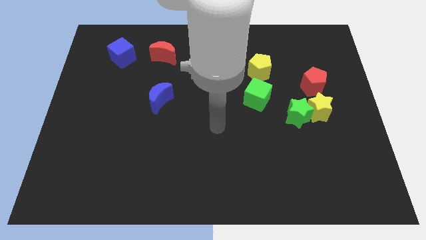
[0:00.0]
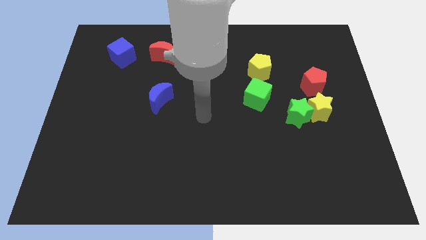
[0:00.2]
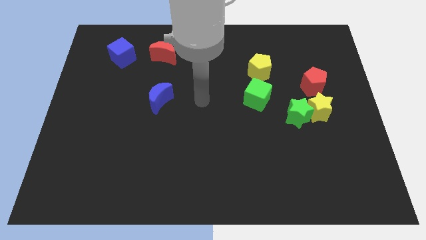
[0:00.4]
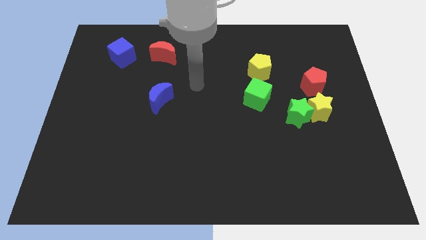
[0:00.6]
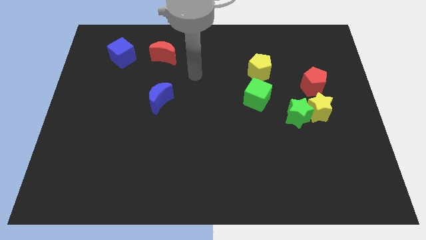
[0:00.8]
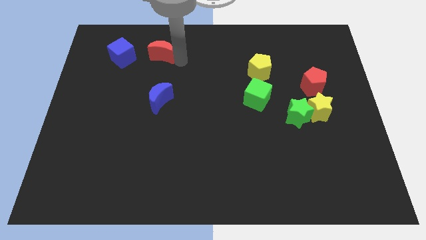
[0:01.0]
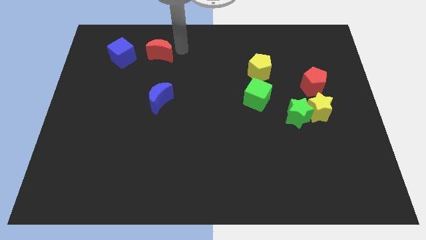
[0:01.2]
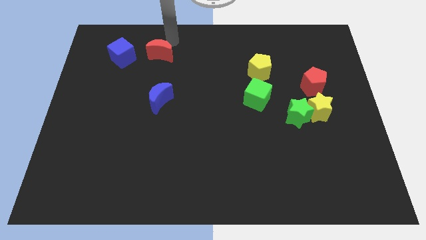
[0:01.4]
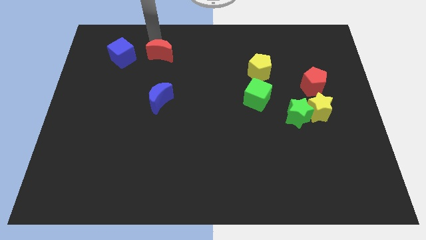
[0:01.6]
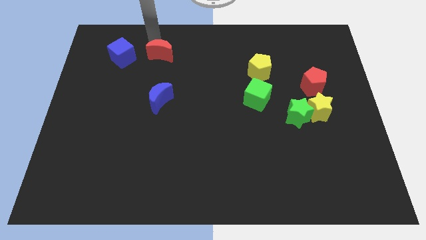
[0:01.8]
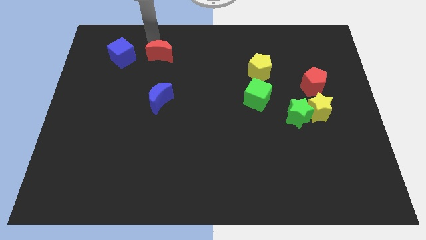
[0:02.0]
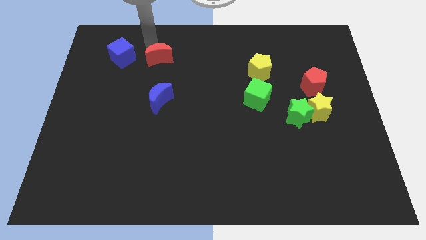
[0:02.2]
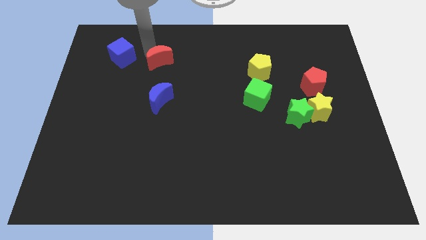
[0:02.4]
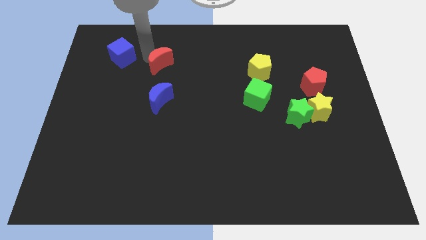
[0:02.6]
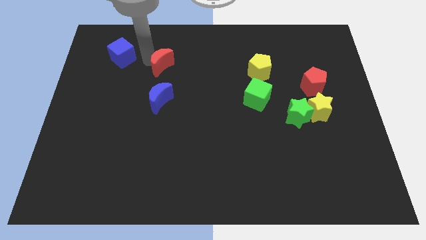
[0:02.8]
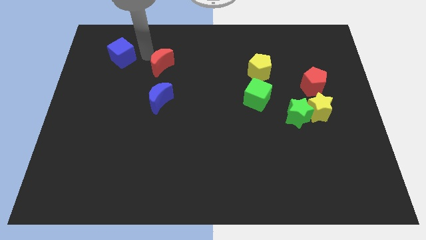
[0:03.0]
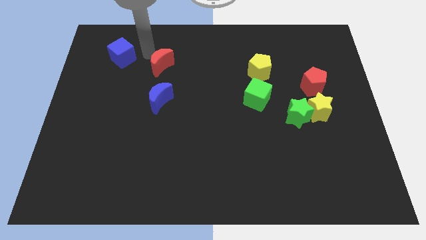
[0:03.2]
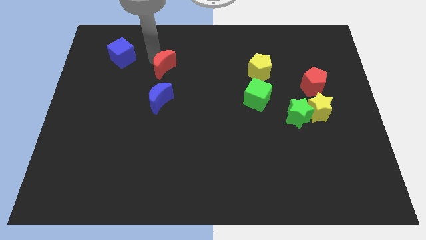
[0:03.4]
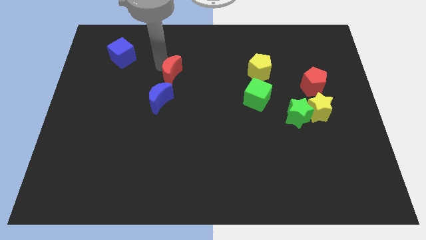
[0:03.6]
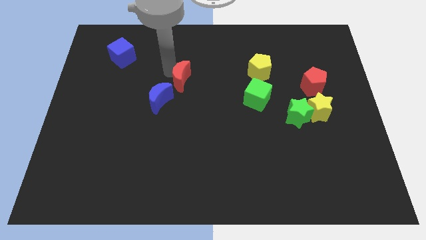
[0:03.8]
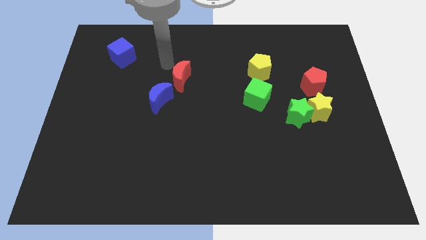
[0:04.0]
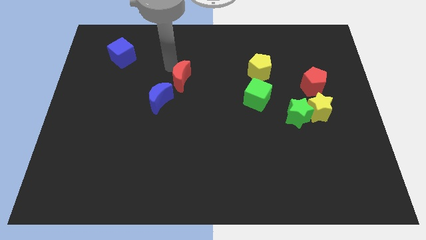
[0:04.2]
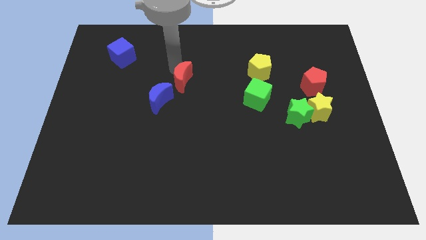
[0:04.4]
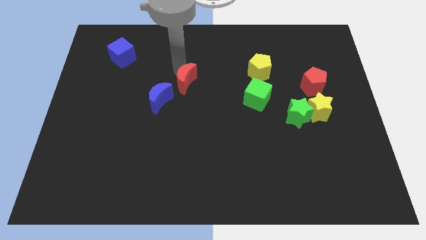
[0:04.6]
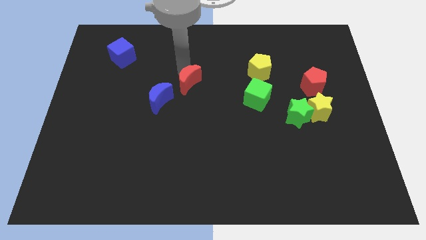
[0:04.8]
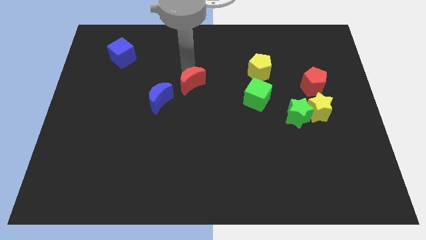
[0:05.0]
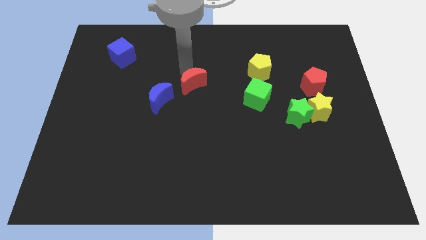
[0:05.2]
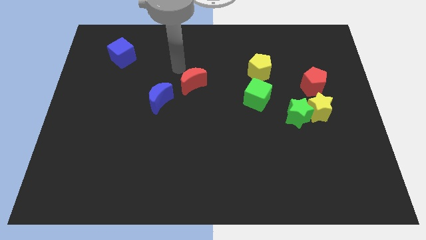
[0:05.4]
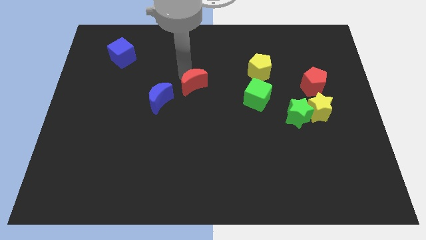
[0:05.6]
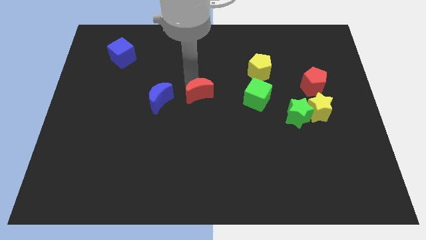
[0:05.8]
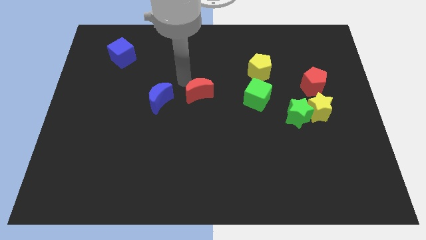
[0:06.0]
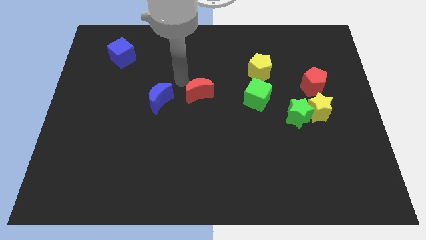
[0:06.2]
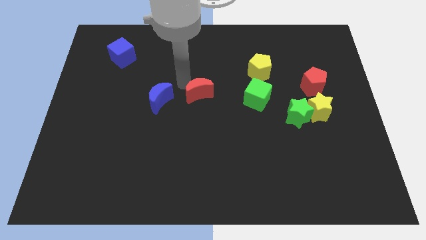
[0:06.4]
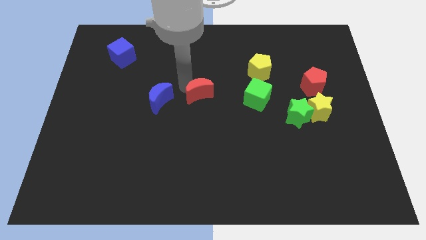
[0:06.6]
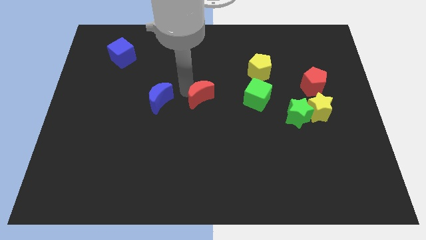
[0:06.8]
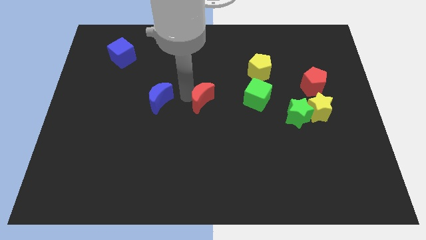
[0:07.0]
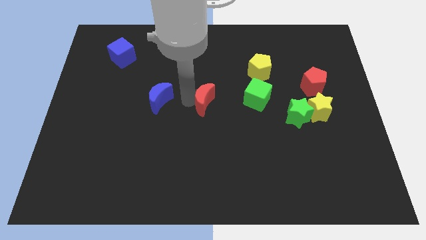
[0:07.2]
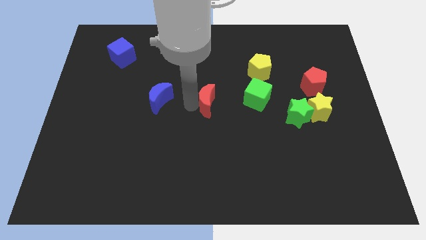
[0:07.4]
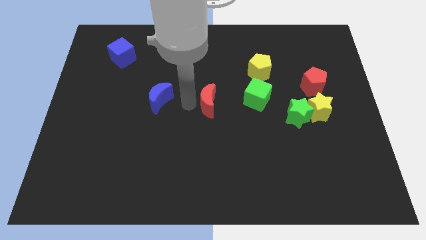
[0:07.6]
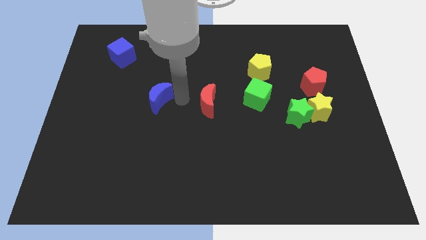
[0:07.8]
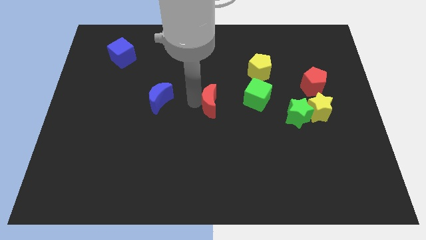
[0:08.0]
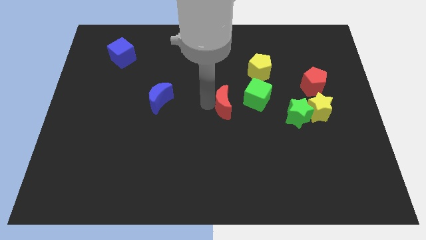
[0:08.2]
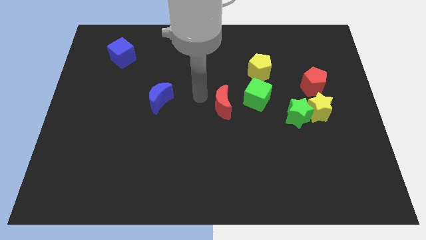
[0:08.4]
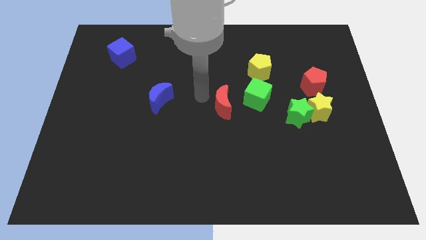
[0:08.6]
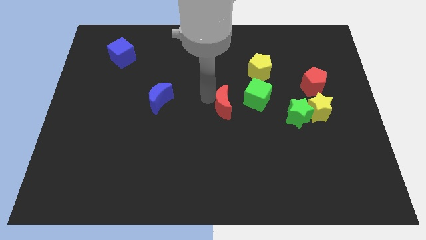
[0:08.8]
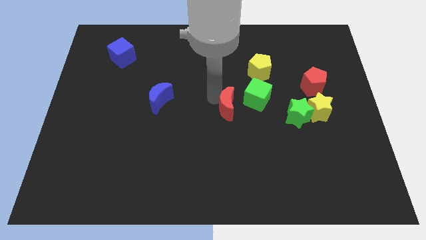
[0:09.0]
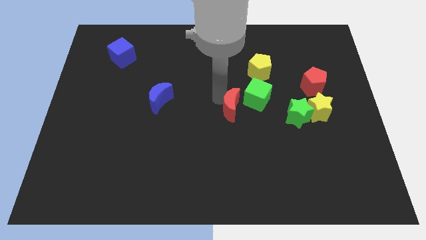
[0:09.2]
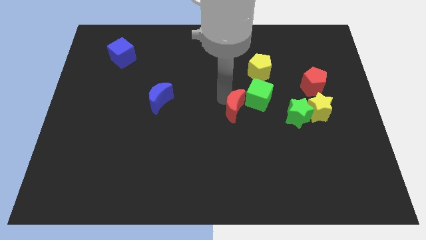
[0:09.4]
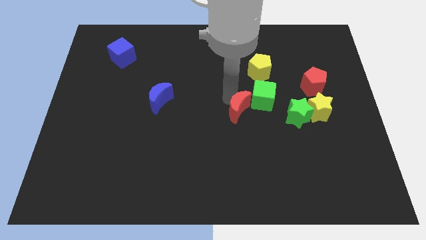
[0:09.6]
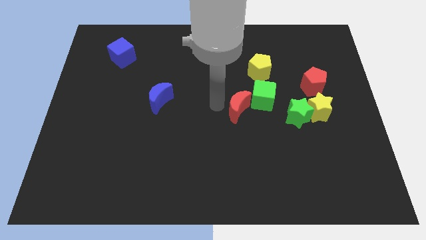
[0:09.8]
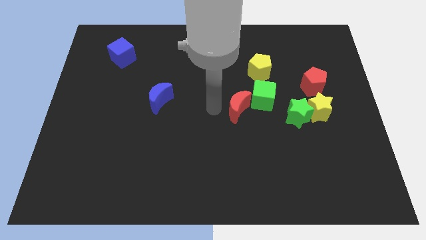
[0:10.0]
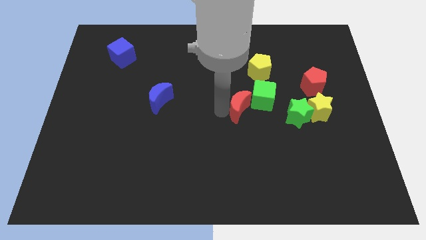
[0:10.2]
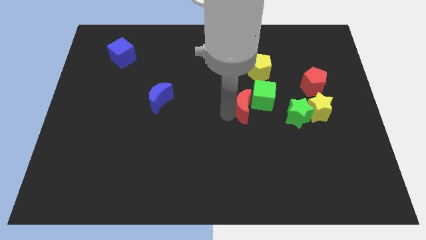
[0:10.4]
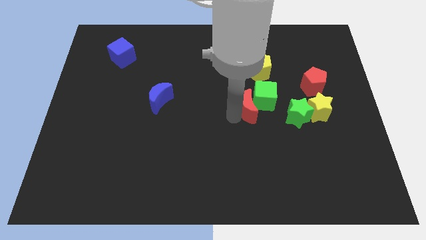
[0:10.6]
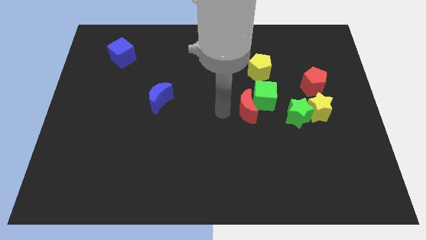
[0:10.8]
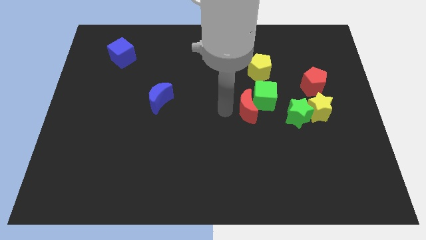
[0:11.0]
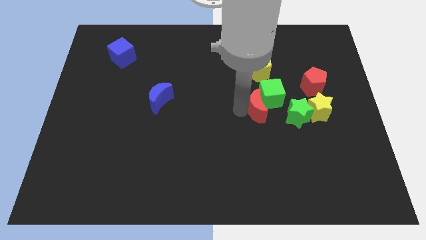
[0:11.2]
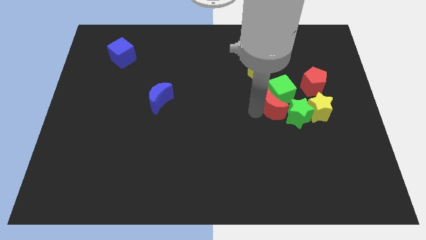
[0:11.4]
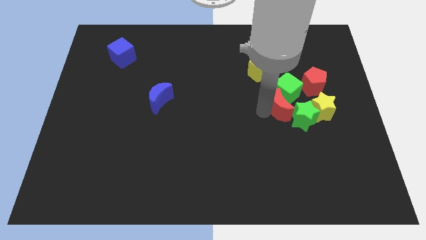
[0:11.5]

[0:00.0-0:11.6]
slide the red moon to the bottom left of the red pentagon
